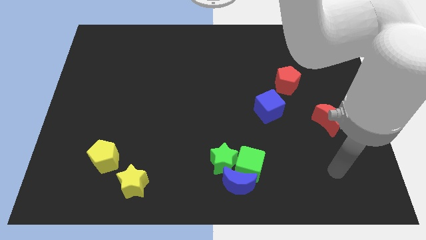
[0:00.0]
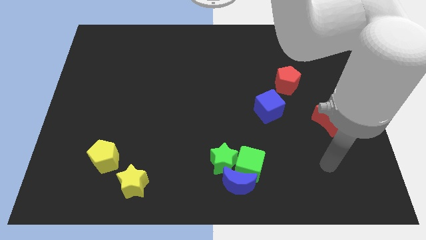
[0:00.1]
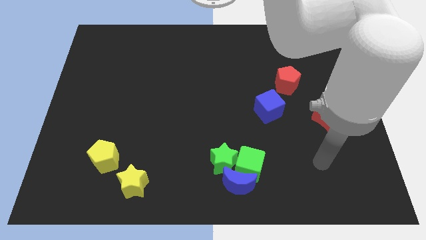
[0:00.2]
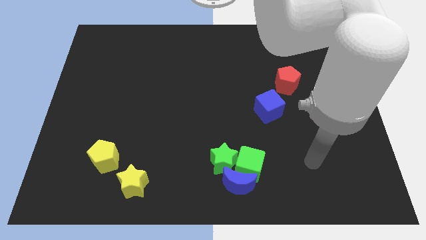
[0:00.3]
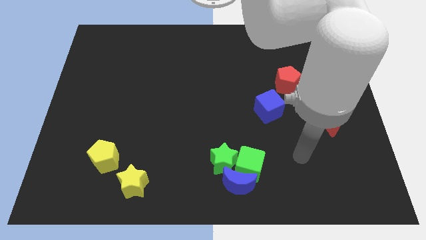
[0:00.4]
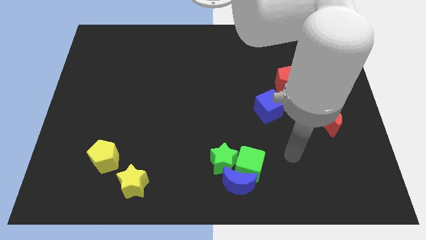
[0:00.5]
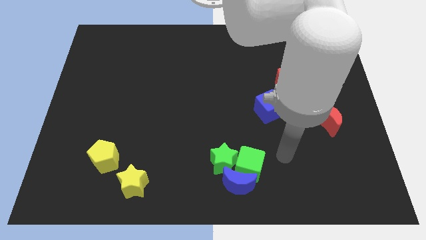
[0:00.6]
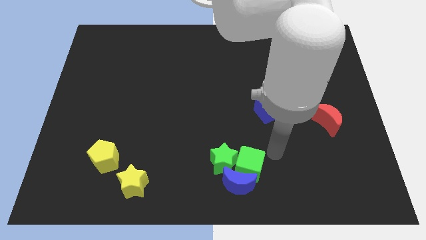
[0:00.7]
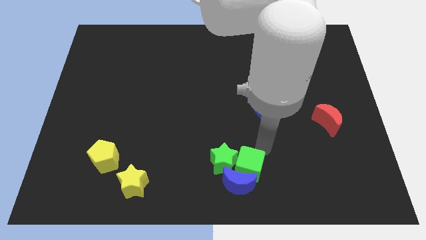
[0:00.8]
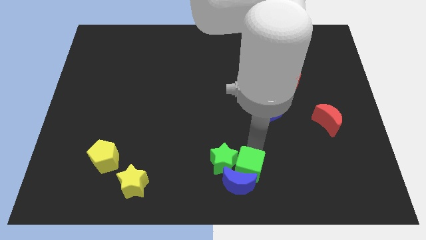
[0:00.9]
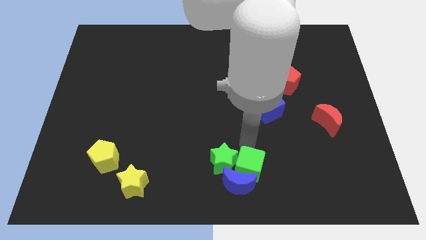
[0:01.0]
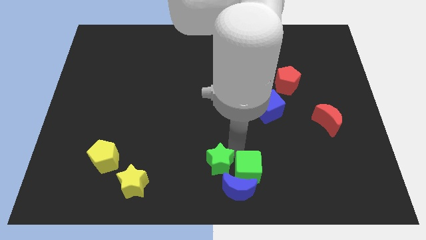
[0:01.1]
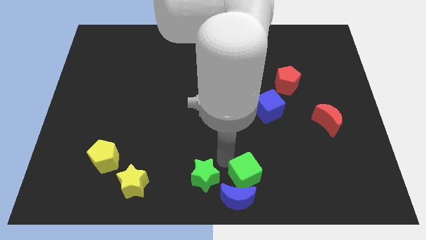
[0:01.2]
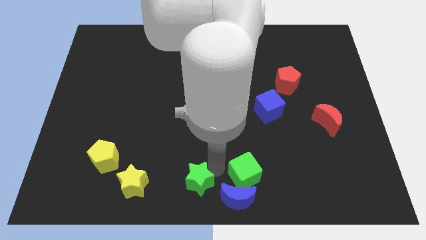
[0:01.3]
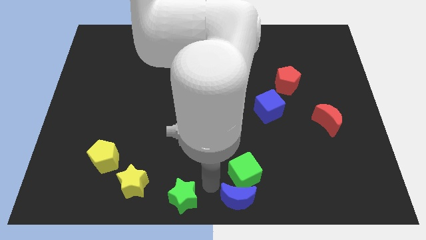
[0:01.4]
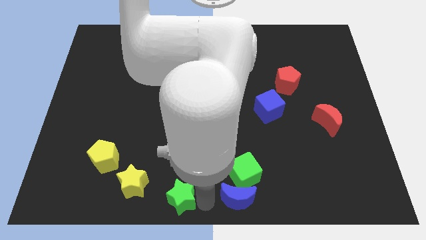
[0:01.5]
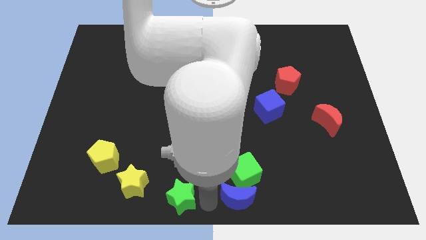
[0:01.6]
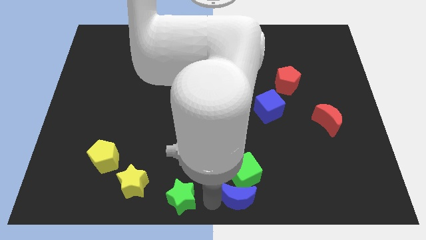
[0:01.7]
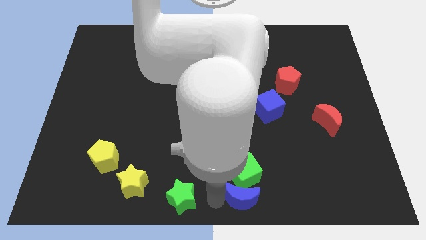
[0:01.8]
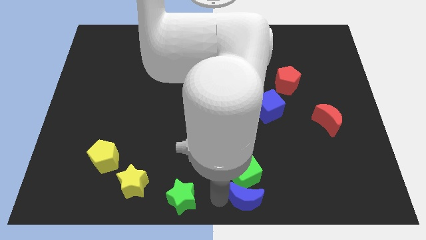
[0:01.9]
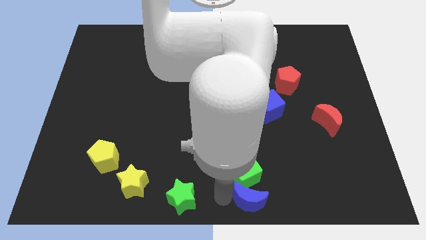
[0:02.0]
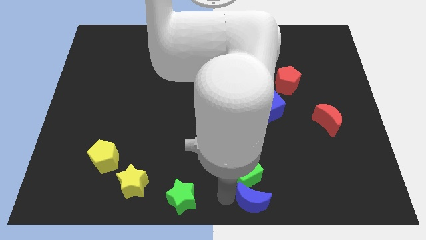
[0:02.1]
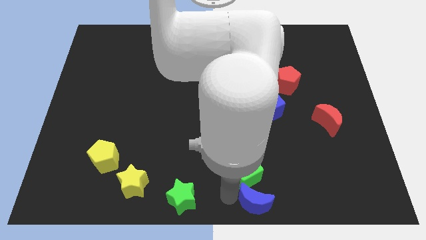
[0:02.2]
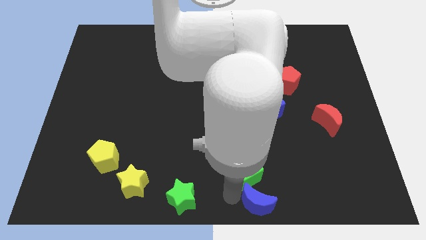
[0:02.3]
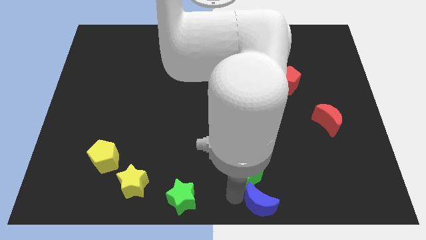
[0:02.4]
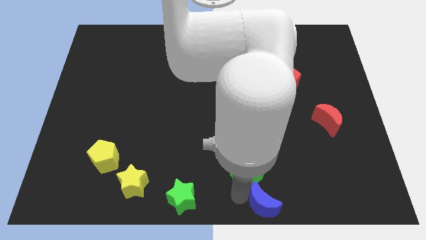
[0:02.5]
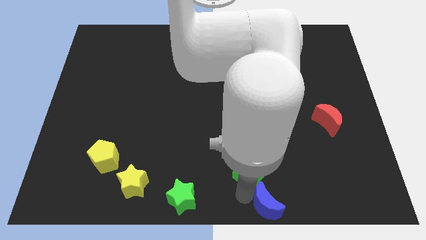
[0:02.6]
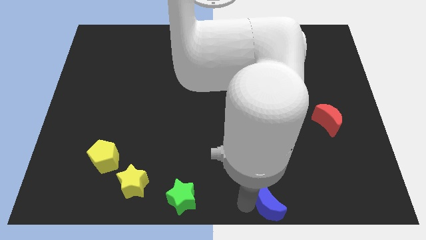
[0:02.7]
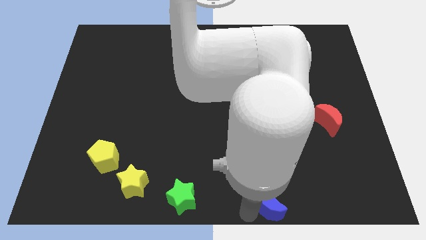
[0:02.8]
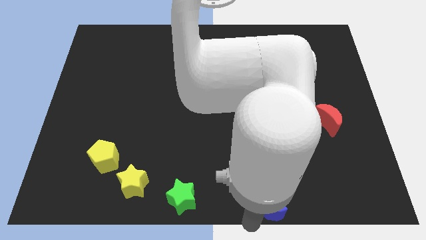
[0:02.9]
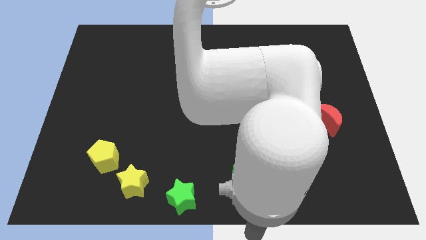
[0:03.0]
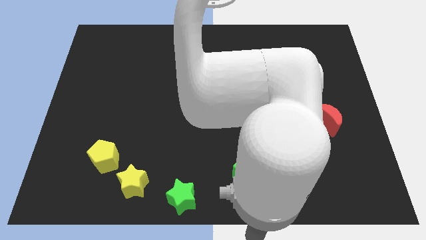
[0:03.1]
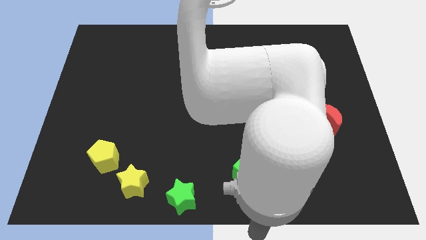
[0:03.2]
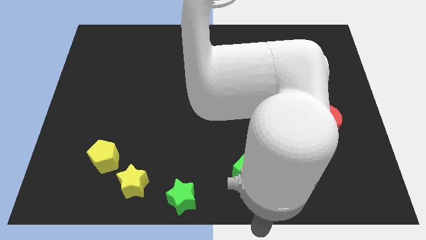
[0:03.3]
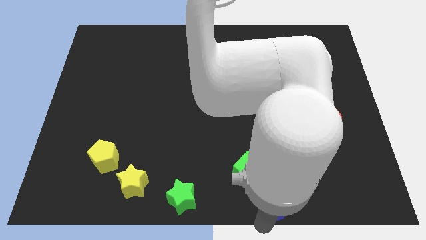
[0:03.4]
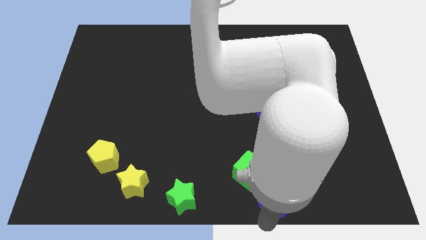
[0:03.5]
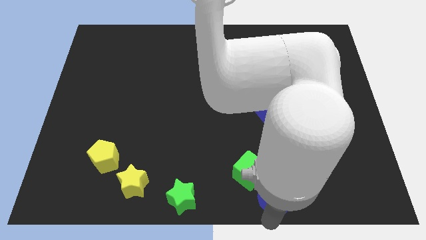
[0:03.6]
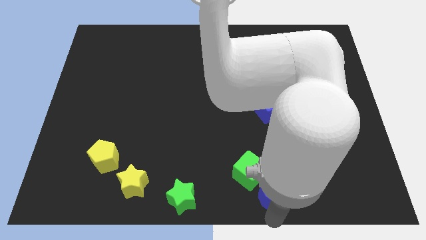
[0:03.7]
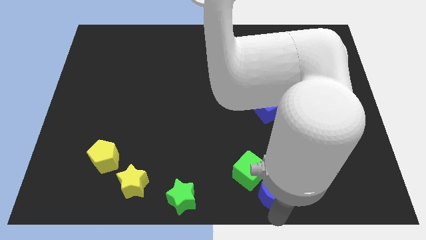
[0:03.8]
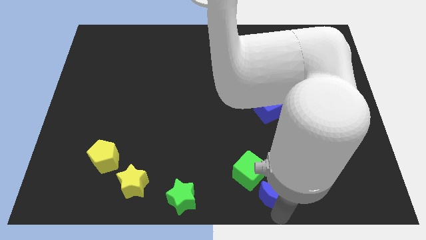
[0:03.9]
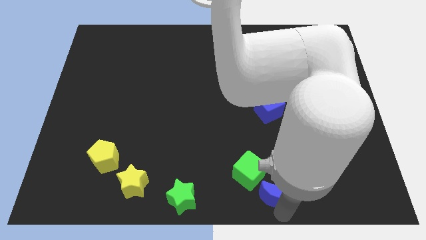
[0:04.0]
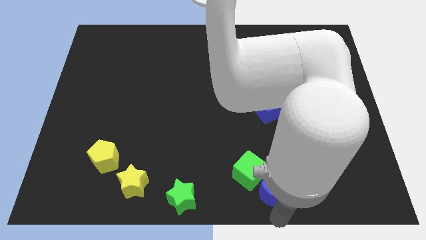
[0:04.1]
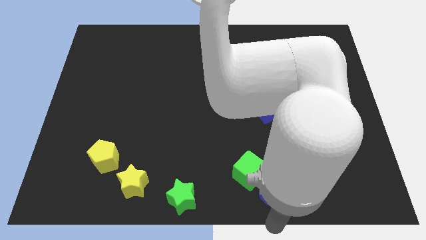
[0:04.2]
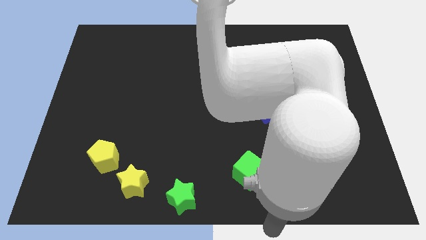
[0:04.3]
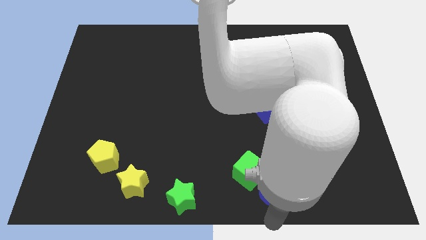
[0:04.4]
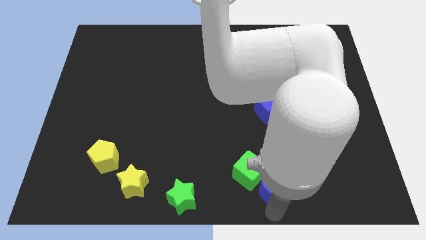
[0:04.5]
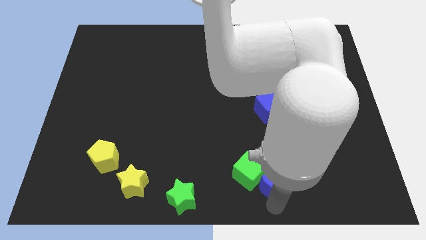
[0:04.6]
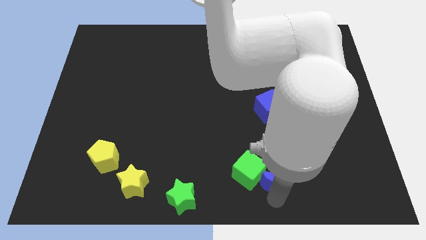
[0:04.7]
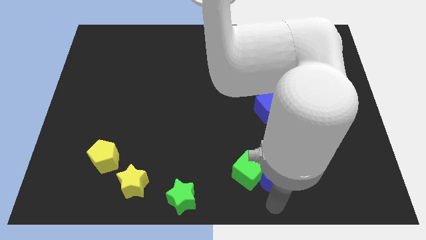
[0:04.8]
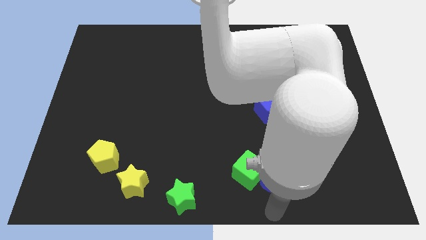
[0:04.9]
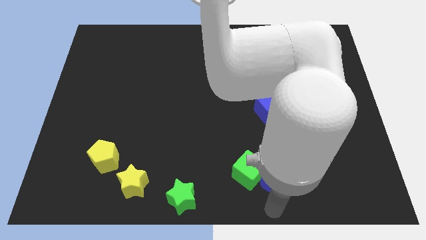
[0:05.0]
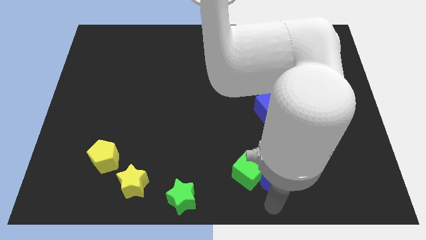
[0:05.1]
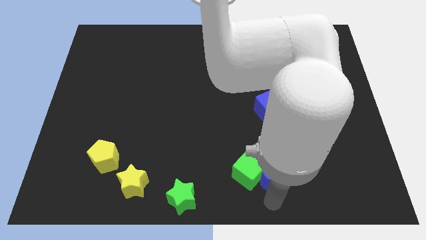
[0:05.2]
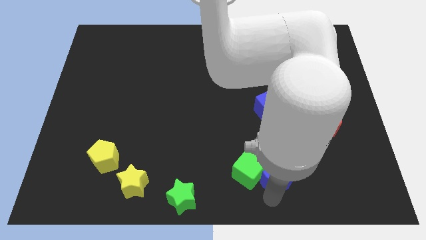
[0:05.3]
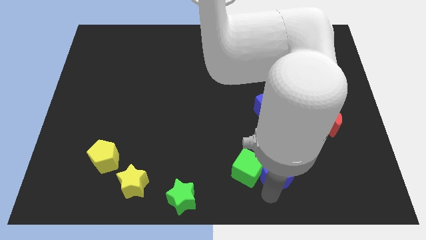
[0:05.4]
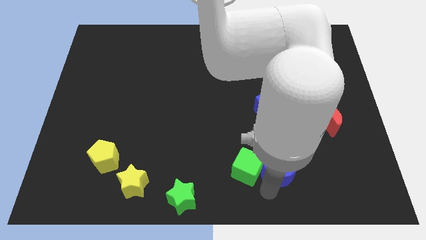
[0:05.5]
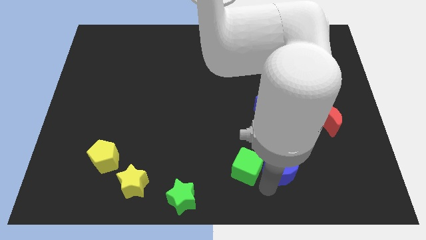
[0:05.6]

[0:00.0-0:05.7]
push the blue moon upwards and then to the right somewhat

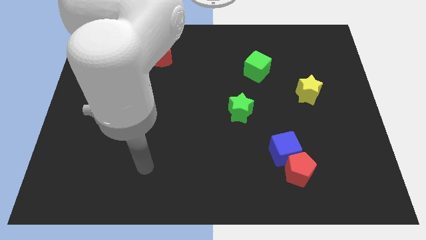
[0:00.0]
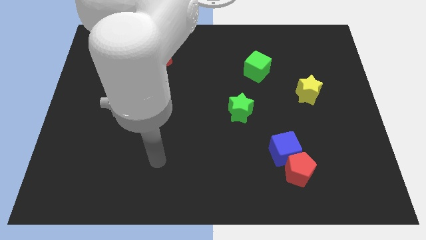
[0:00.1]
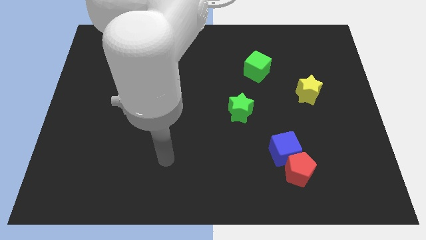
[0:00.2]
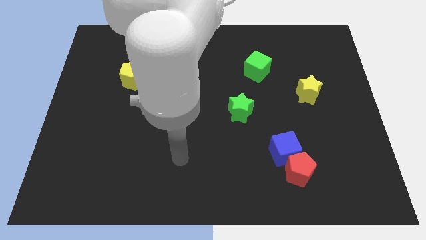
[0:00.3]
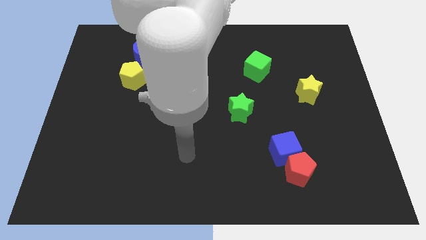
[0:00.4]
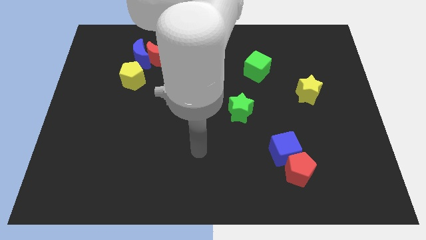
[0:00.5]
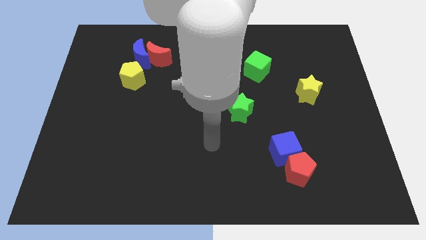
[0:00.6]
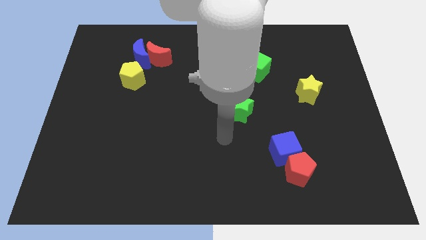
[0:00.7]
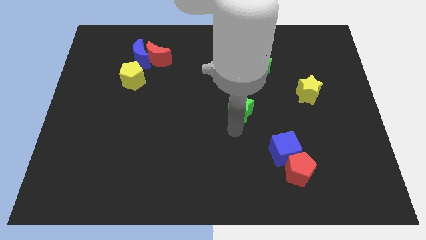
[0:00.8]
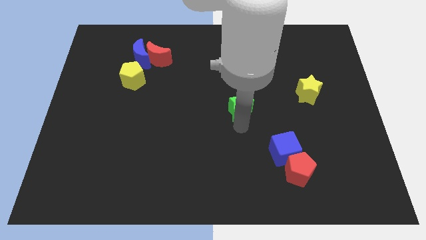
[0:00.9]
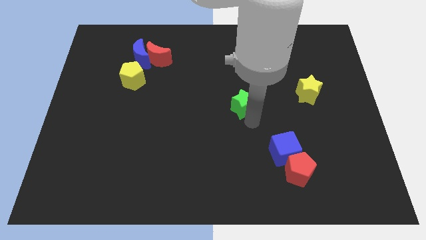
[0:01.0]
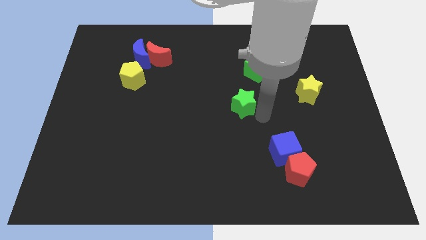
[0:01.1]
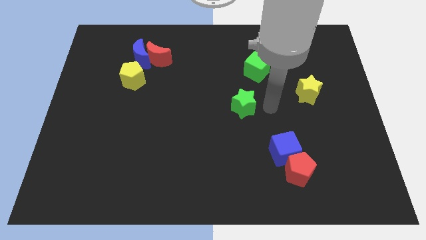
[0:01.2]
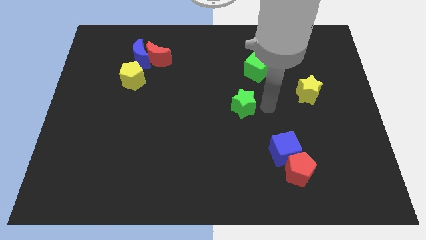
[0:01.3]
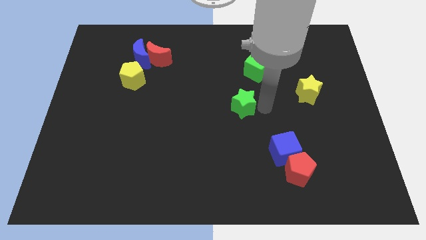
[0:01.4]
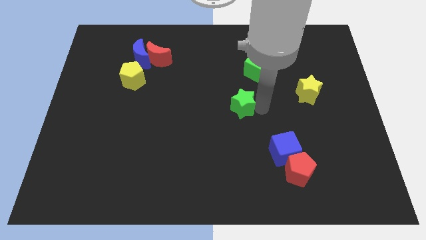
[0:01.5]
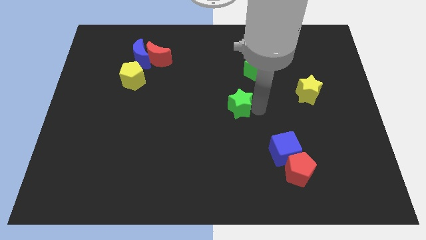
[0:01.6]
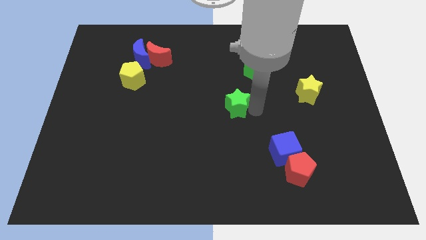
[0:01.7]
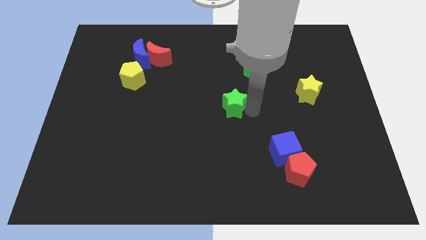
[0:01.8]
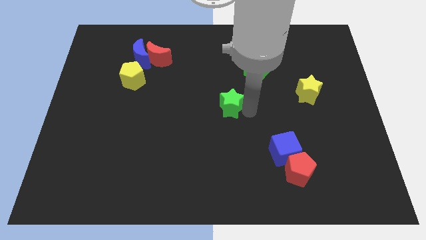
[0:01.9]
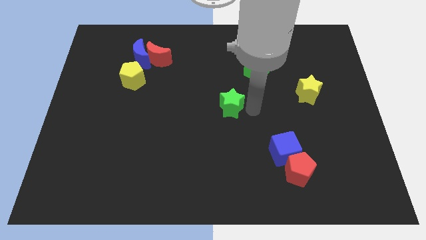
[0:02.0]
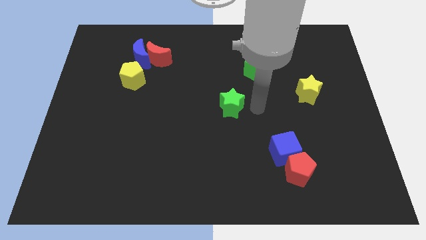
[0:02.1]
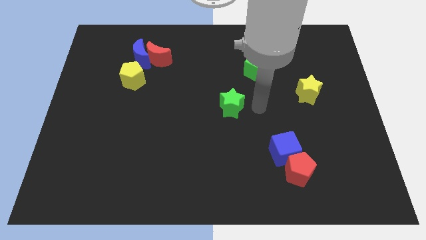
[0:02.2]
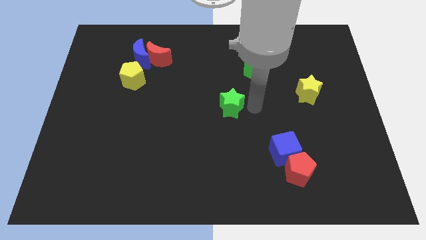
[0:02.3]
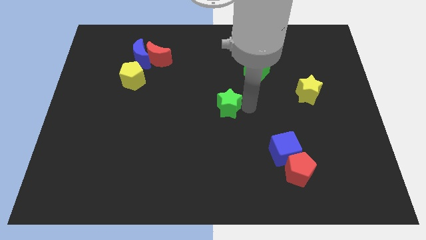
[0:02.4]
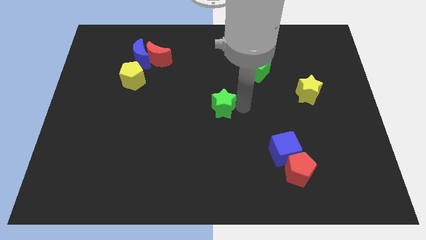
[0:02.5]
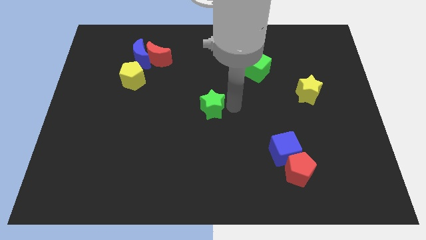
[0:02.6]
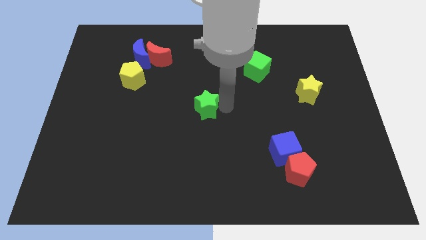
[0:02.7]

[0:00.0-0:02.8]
slide the green star somewhat to the left
